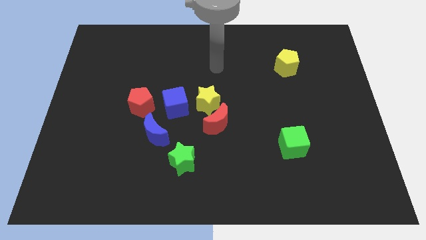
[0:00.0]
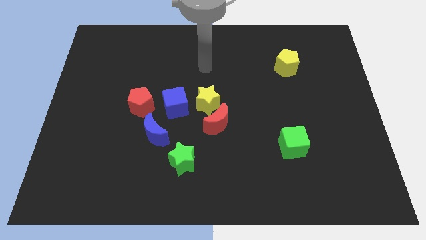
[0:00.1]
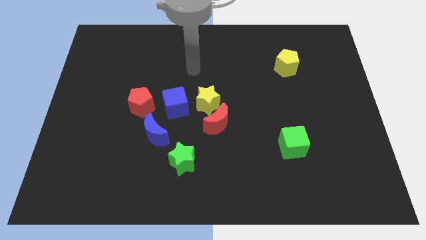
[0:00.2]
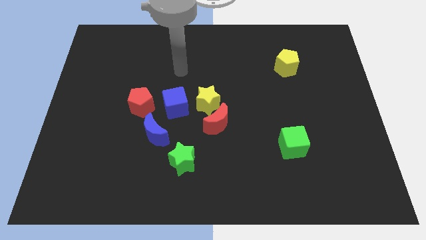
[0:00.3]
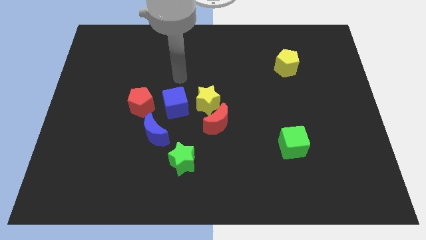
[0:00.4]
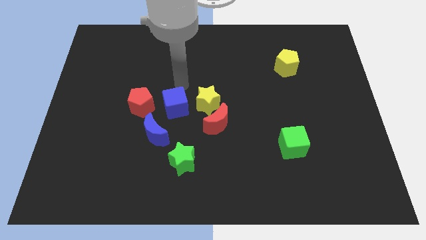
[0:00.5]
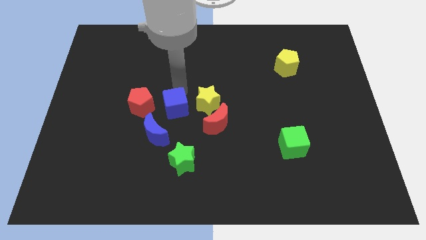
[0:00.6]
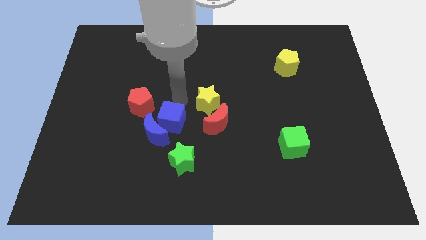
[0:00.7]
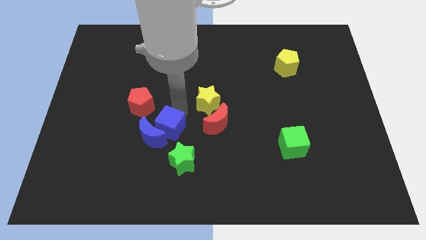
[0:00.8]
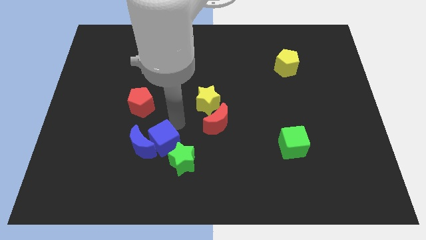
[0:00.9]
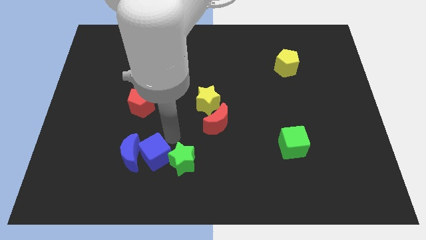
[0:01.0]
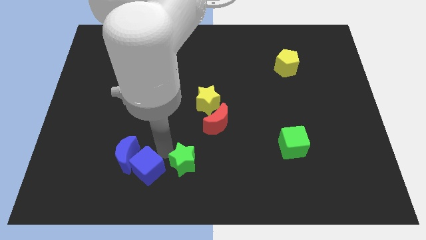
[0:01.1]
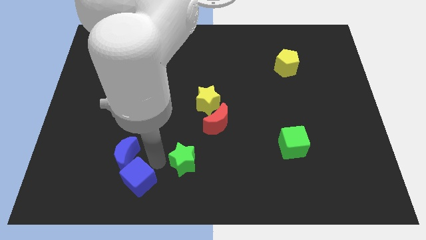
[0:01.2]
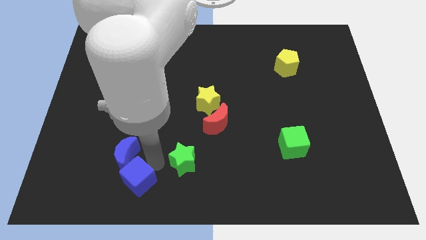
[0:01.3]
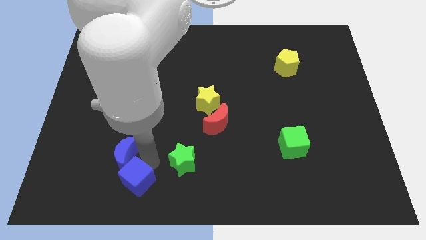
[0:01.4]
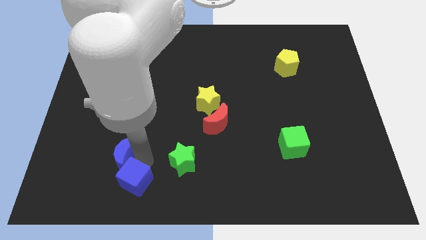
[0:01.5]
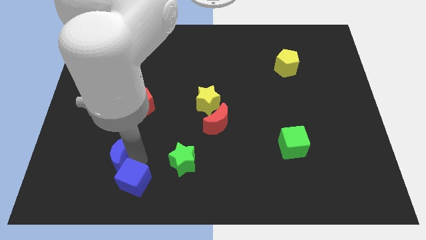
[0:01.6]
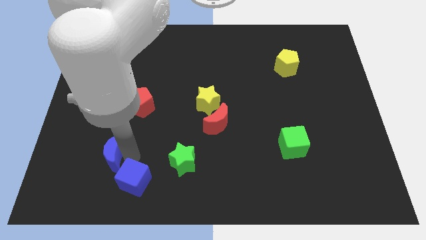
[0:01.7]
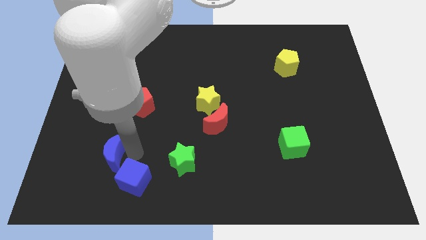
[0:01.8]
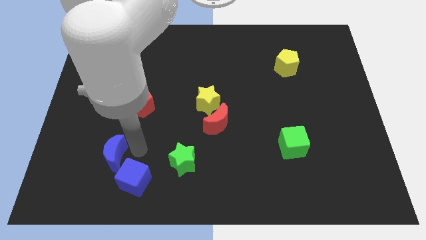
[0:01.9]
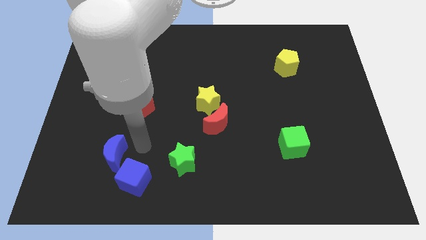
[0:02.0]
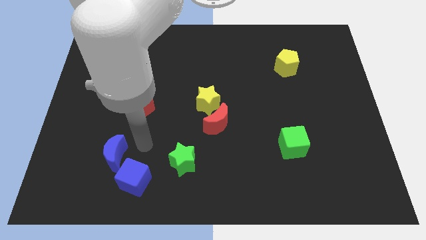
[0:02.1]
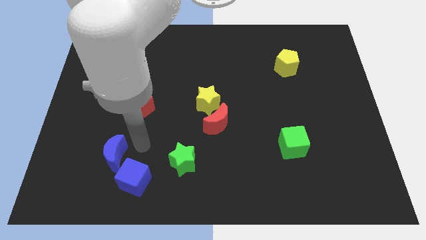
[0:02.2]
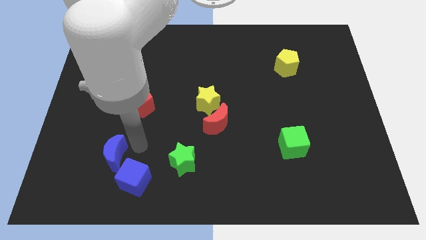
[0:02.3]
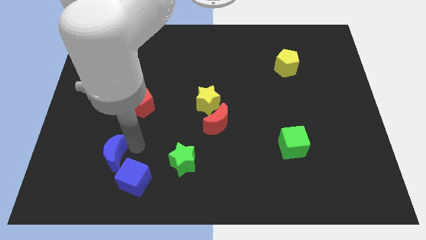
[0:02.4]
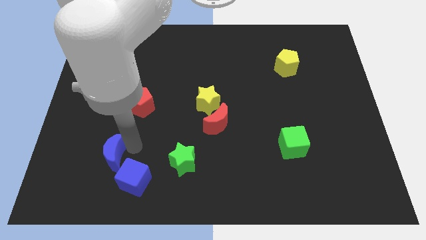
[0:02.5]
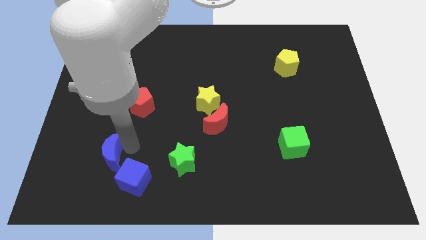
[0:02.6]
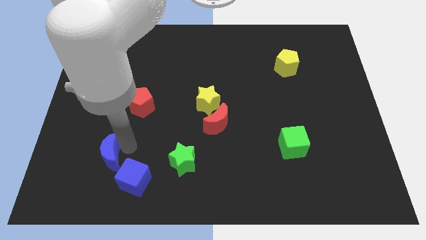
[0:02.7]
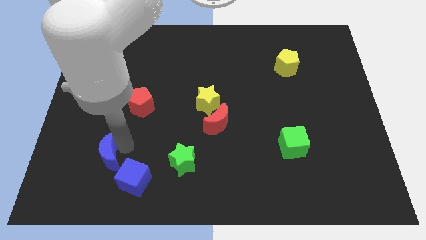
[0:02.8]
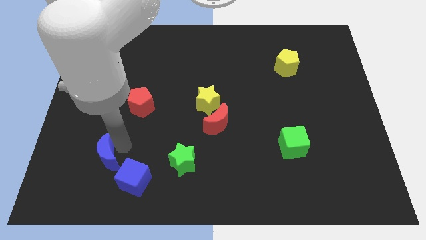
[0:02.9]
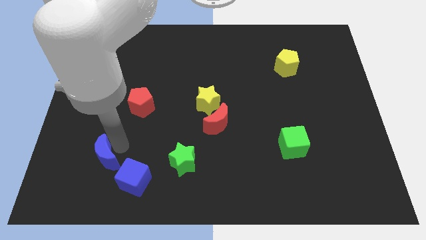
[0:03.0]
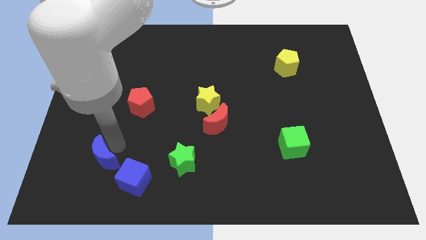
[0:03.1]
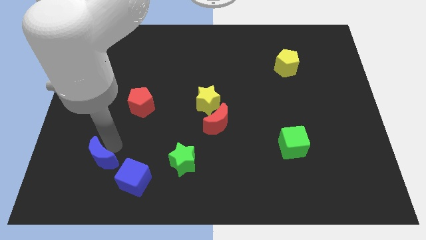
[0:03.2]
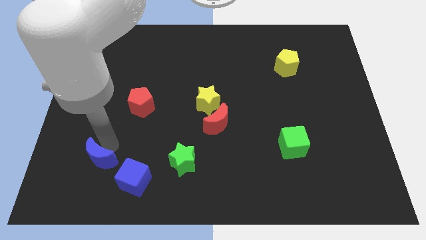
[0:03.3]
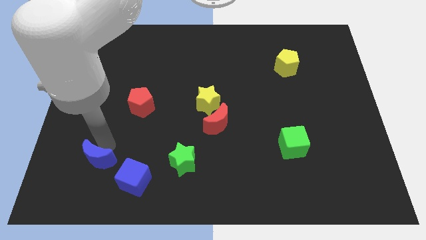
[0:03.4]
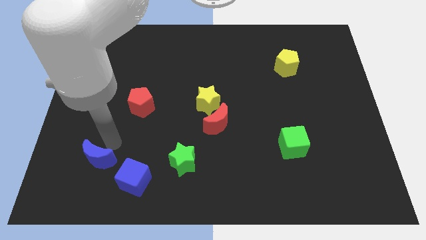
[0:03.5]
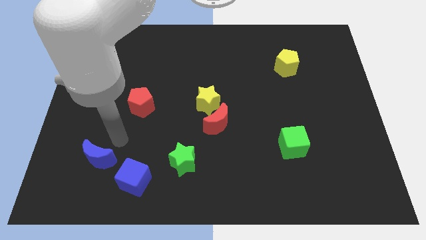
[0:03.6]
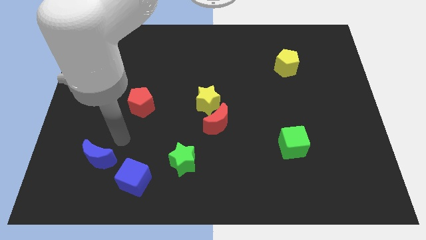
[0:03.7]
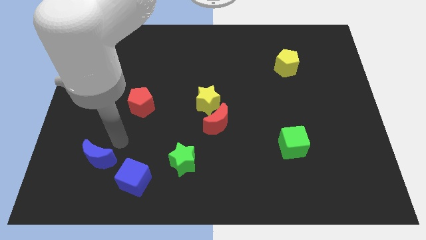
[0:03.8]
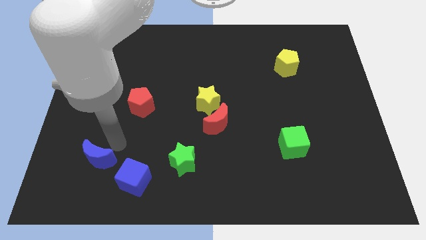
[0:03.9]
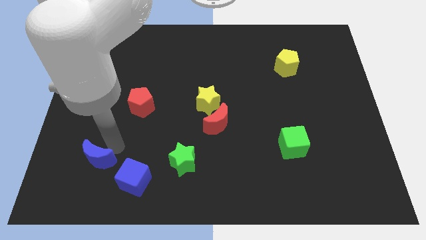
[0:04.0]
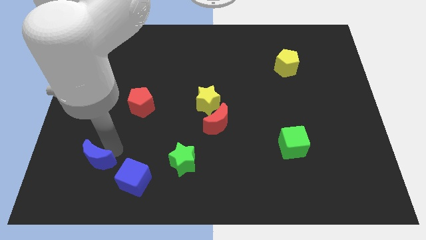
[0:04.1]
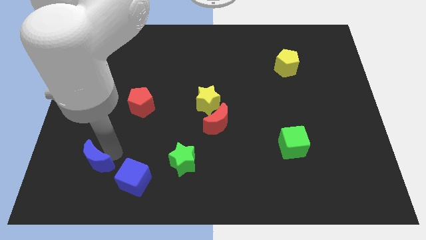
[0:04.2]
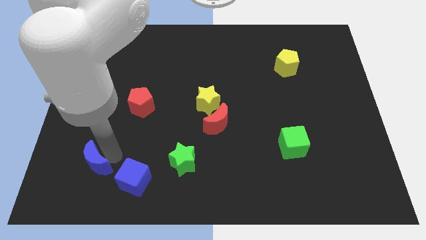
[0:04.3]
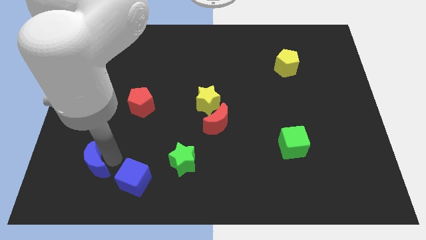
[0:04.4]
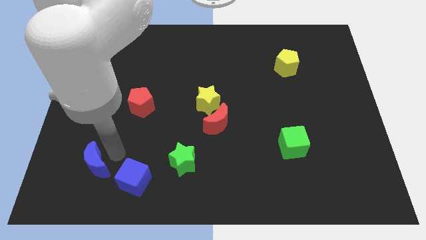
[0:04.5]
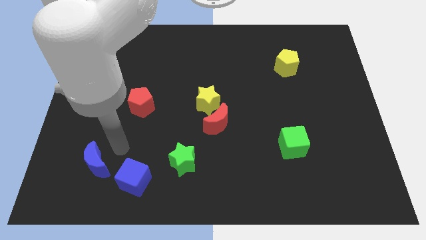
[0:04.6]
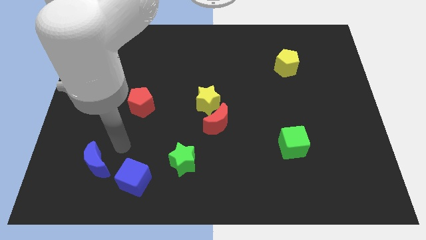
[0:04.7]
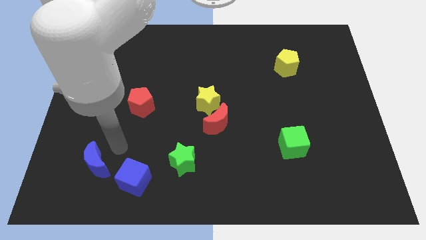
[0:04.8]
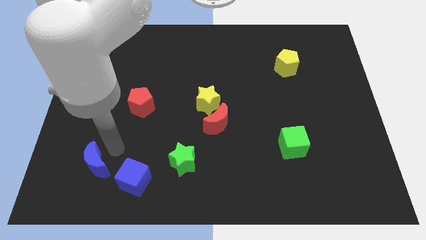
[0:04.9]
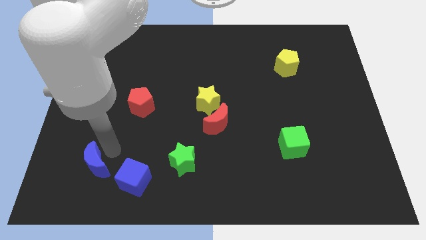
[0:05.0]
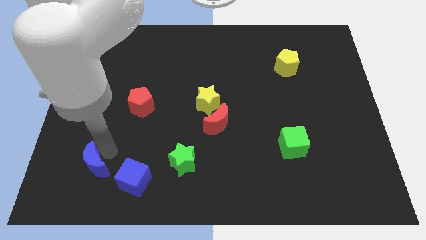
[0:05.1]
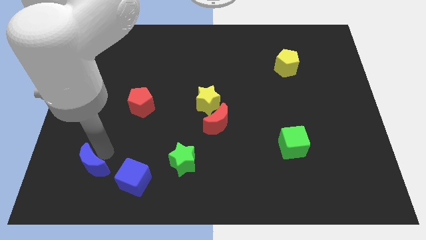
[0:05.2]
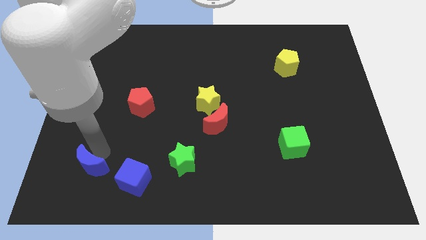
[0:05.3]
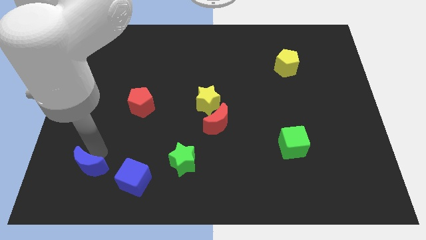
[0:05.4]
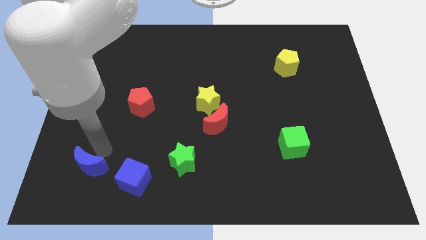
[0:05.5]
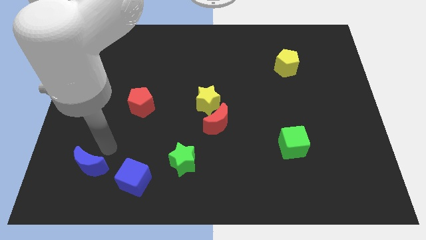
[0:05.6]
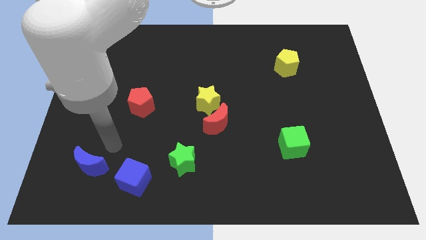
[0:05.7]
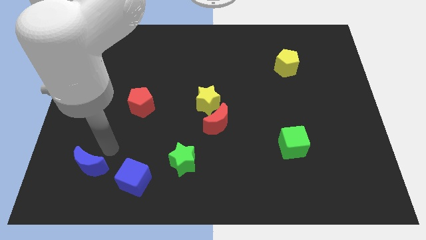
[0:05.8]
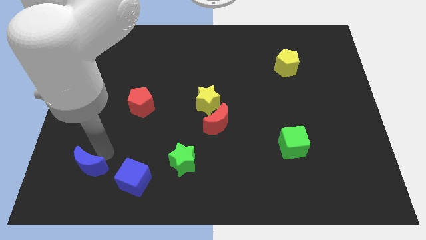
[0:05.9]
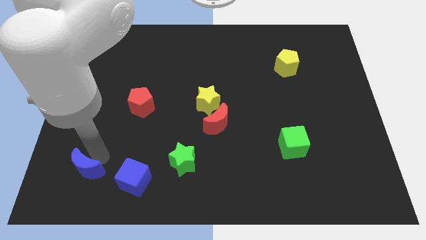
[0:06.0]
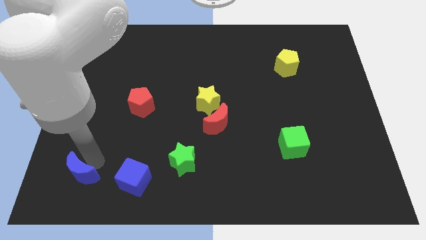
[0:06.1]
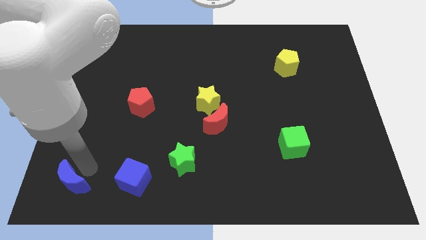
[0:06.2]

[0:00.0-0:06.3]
push the blue moon to the bottom left corner
